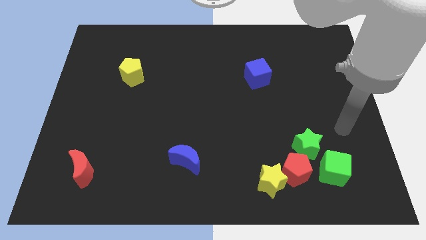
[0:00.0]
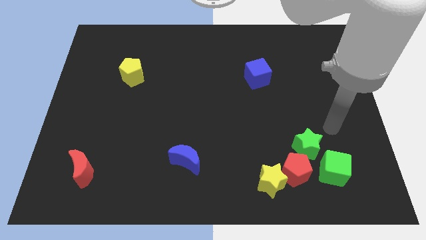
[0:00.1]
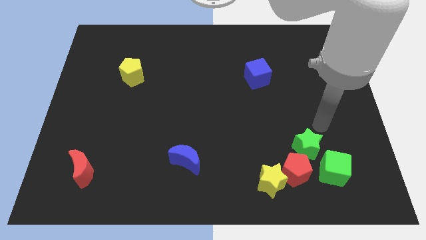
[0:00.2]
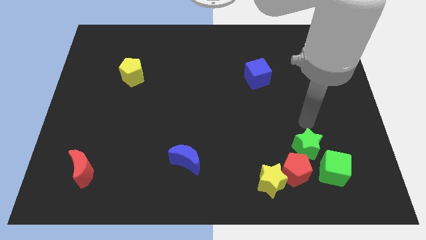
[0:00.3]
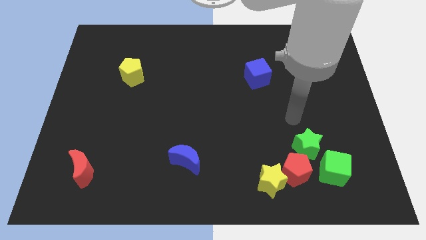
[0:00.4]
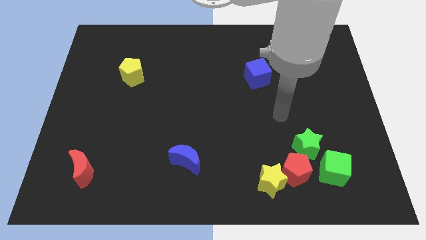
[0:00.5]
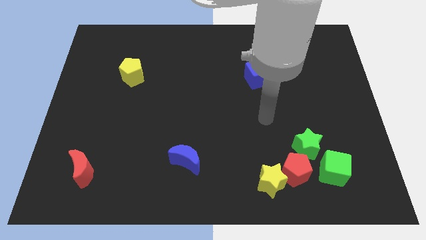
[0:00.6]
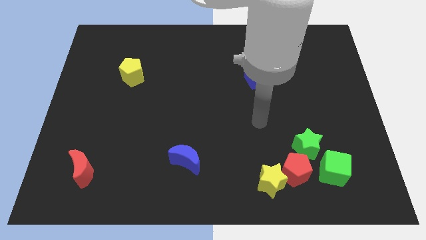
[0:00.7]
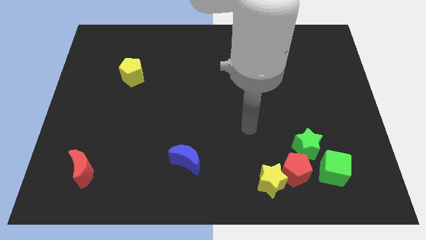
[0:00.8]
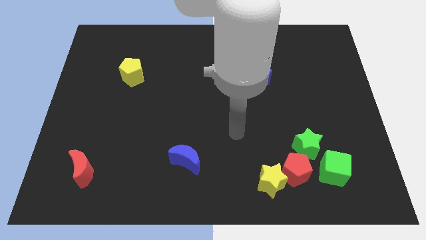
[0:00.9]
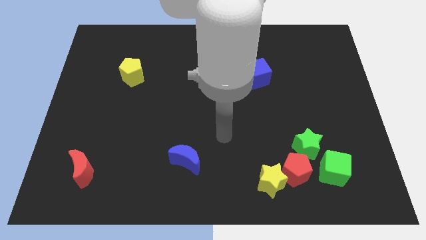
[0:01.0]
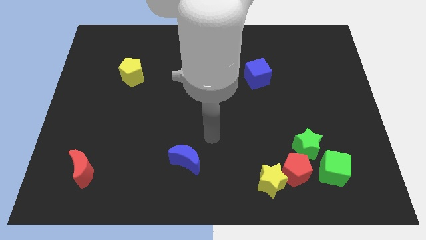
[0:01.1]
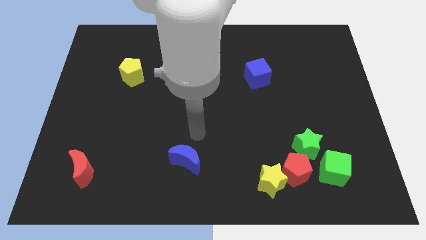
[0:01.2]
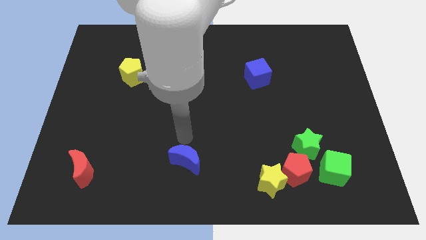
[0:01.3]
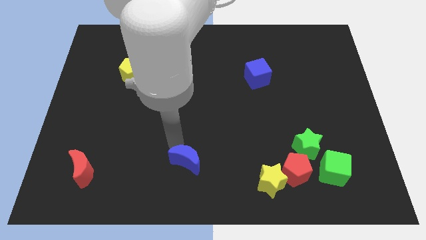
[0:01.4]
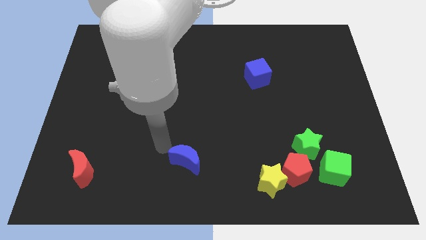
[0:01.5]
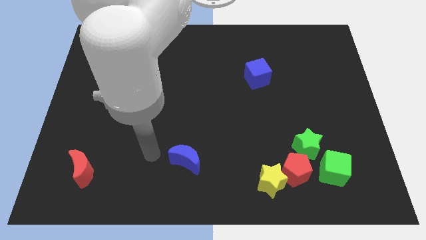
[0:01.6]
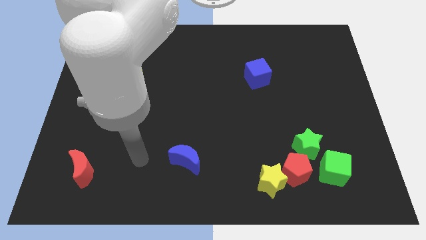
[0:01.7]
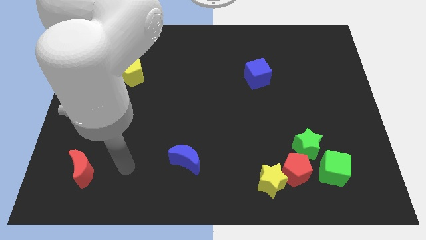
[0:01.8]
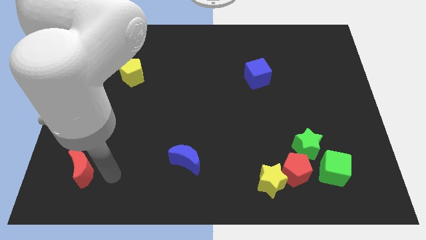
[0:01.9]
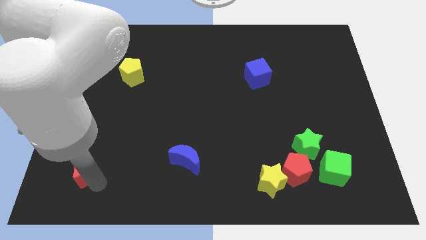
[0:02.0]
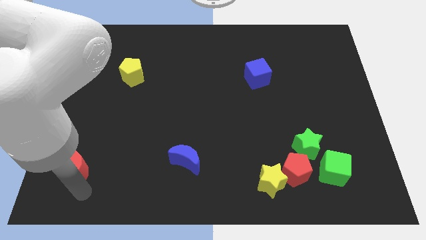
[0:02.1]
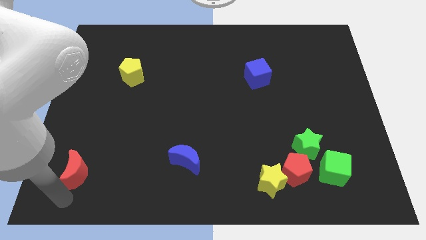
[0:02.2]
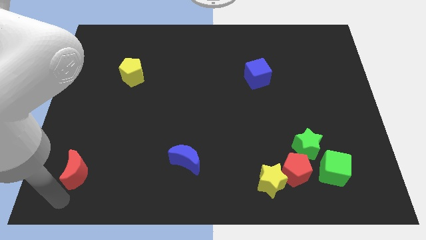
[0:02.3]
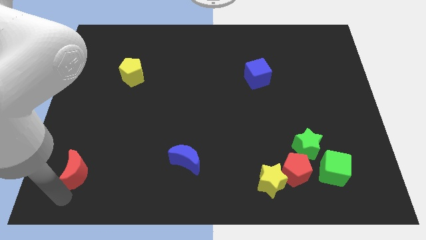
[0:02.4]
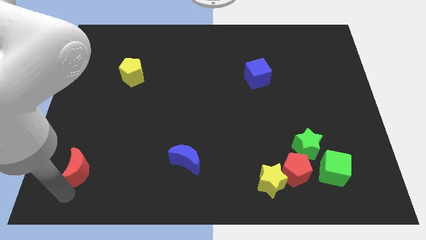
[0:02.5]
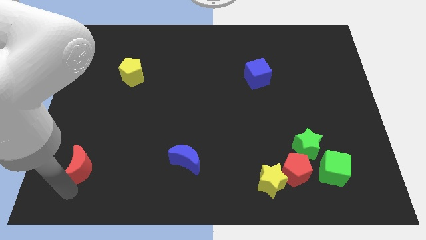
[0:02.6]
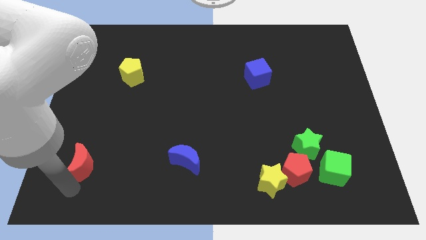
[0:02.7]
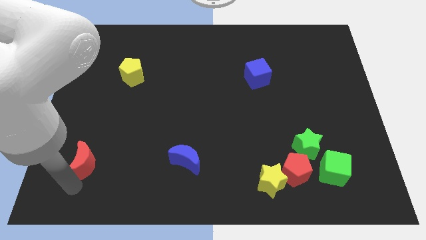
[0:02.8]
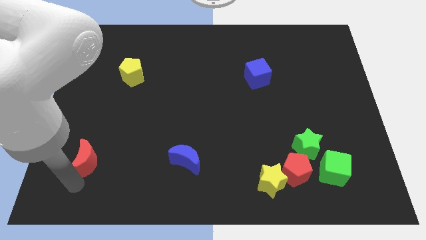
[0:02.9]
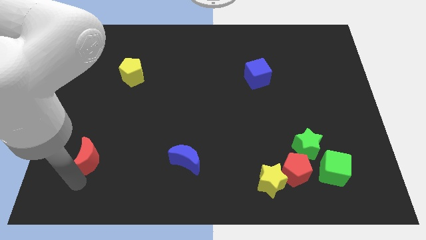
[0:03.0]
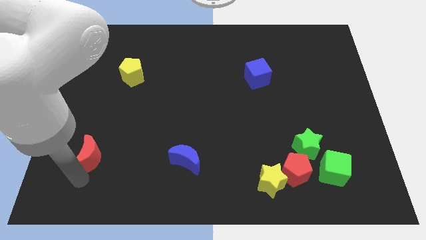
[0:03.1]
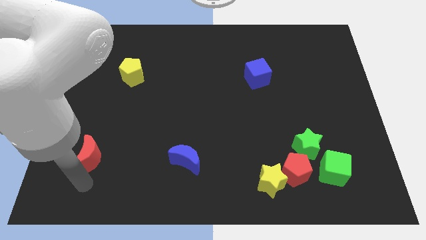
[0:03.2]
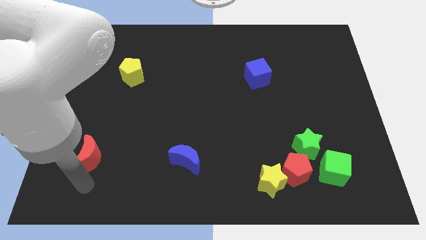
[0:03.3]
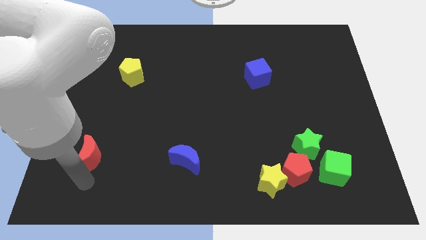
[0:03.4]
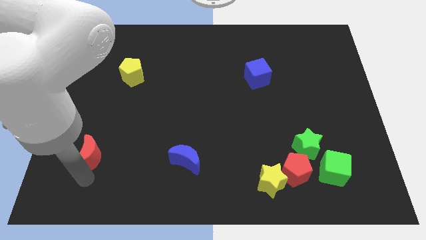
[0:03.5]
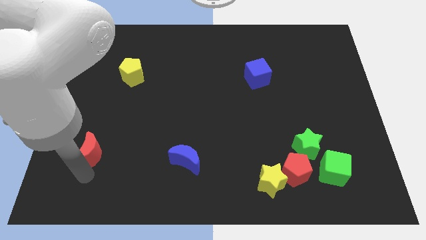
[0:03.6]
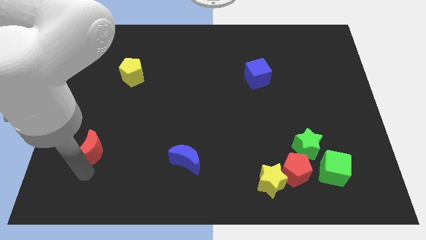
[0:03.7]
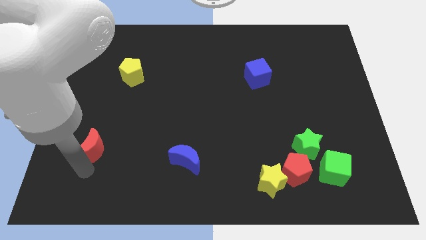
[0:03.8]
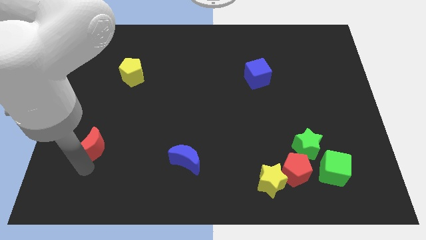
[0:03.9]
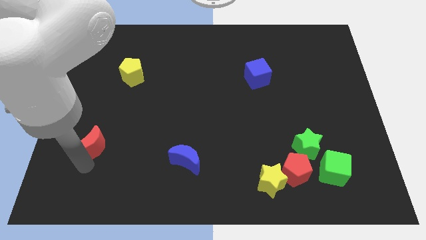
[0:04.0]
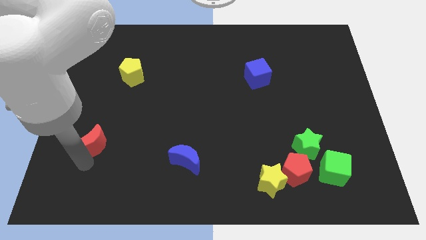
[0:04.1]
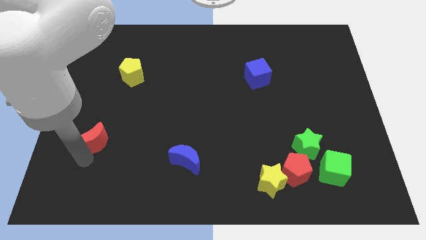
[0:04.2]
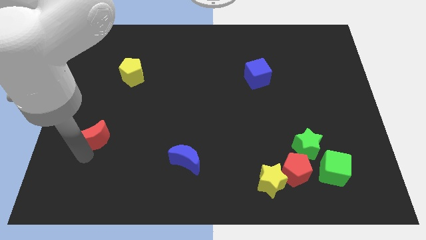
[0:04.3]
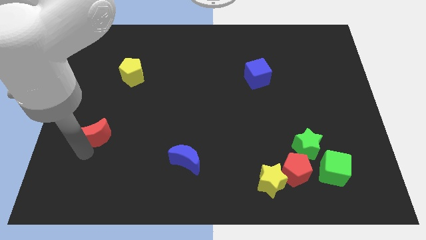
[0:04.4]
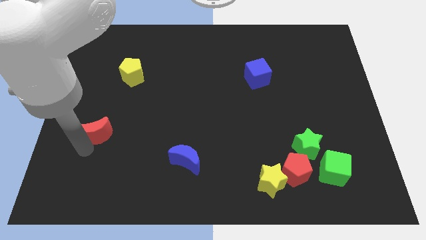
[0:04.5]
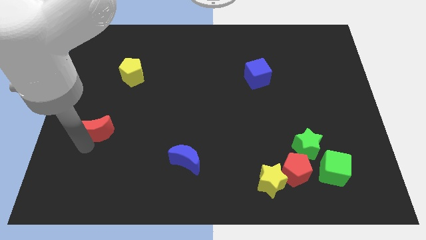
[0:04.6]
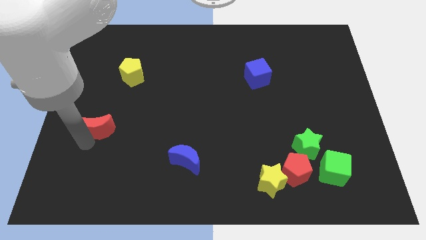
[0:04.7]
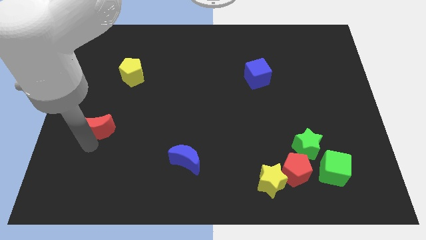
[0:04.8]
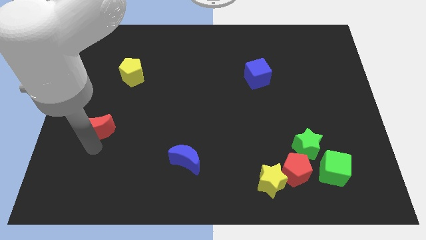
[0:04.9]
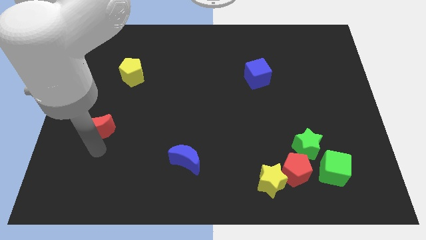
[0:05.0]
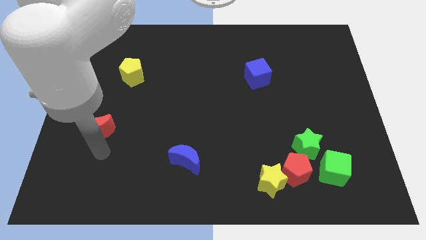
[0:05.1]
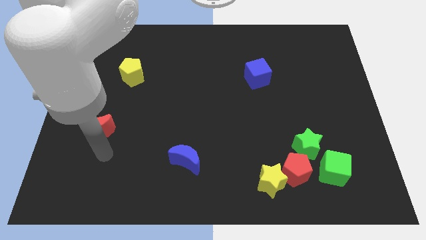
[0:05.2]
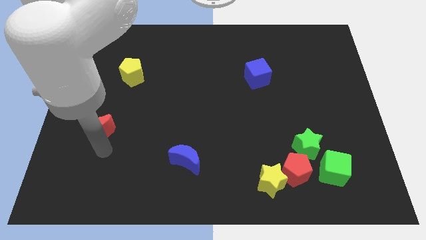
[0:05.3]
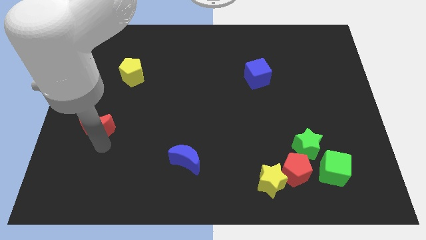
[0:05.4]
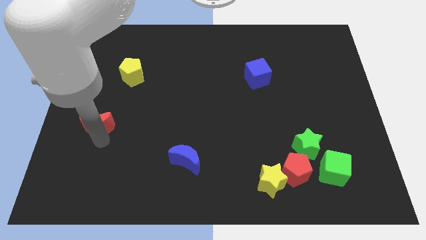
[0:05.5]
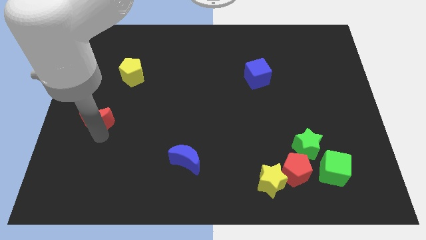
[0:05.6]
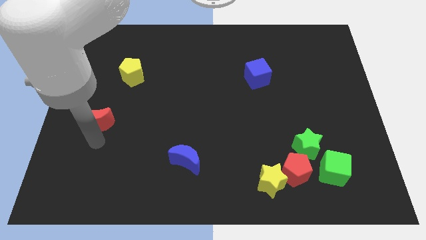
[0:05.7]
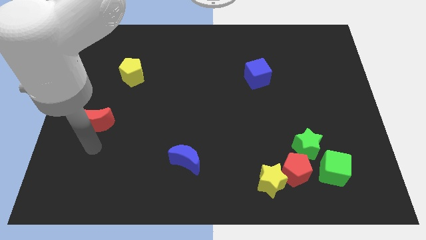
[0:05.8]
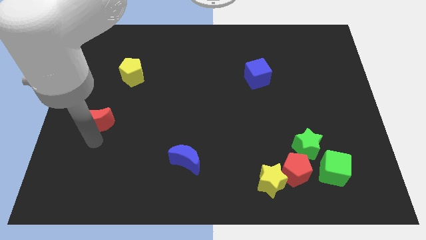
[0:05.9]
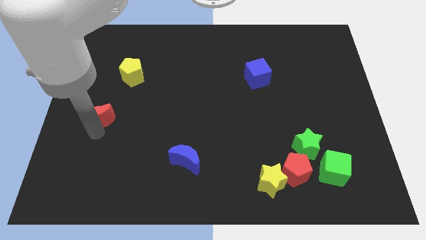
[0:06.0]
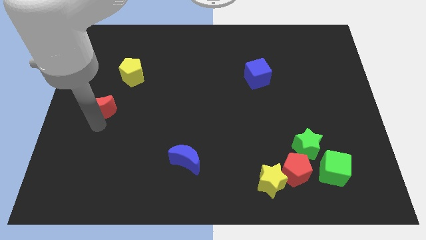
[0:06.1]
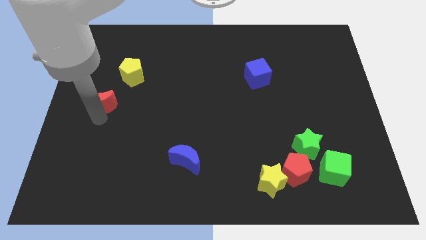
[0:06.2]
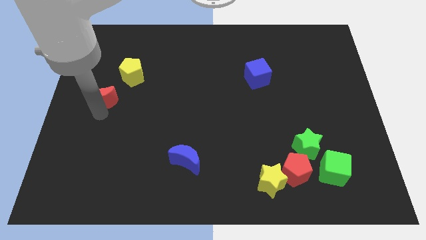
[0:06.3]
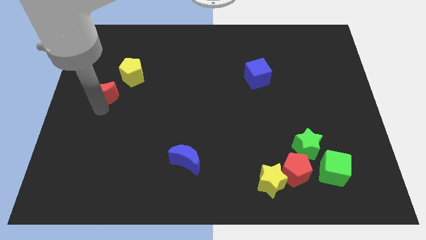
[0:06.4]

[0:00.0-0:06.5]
move the red moon upwards

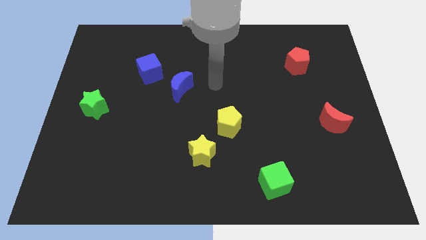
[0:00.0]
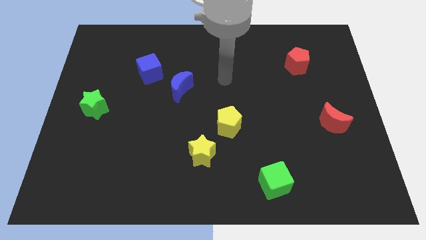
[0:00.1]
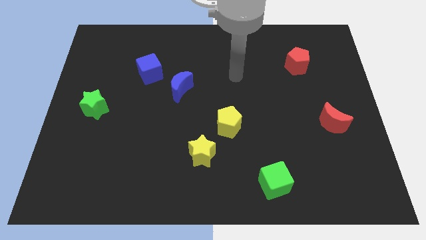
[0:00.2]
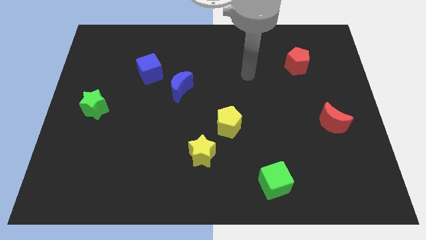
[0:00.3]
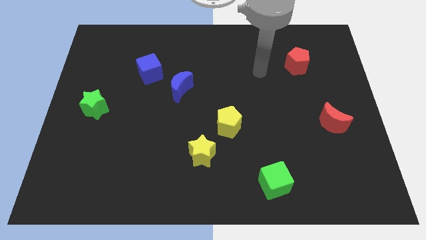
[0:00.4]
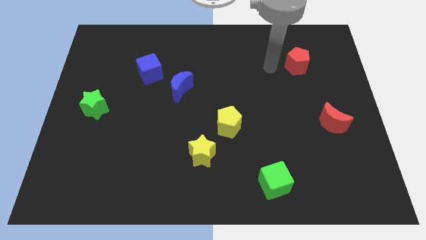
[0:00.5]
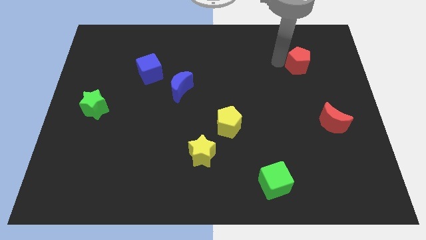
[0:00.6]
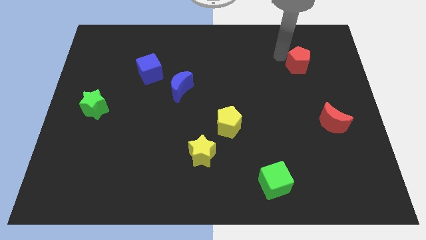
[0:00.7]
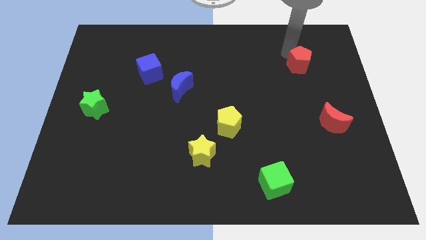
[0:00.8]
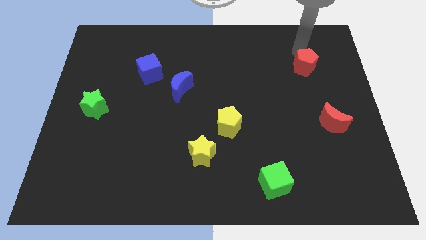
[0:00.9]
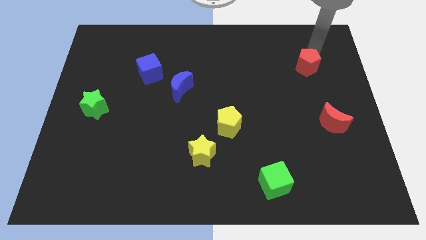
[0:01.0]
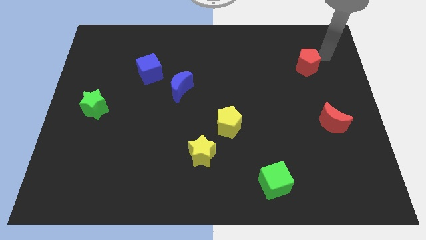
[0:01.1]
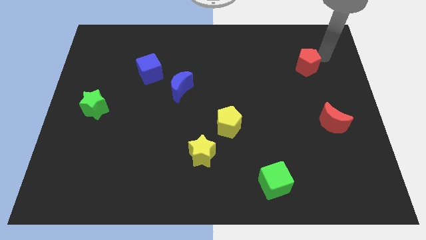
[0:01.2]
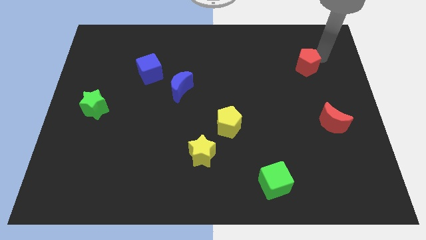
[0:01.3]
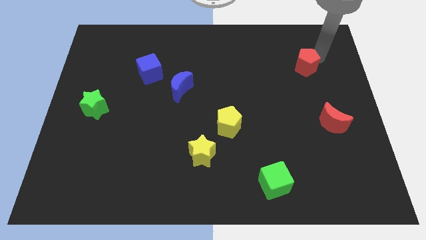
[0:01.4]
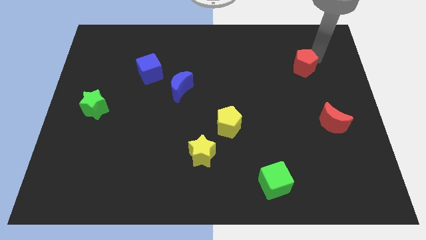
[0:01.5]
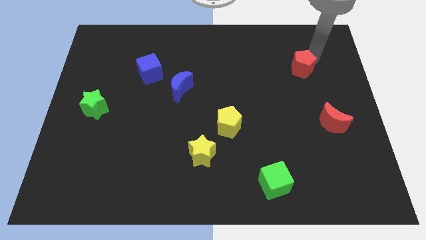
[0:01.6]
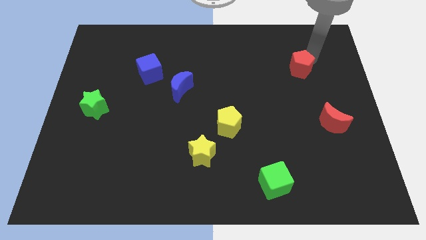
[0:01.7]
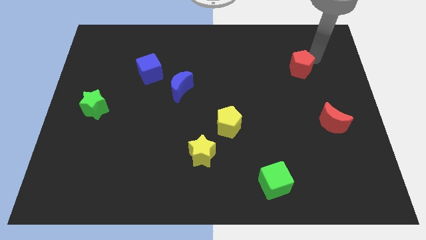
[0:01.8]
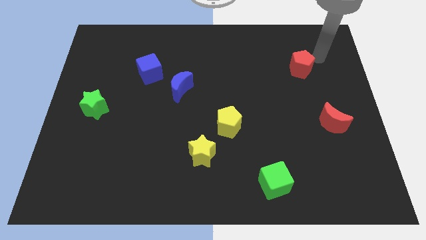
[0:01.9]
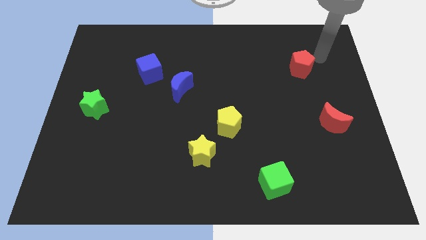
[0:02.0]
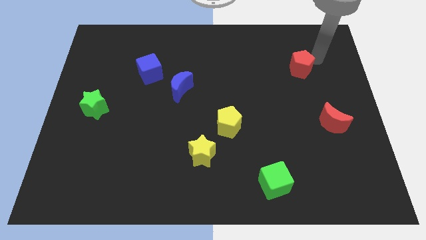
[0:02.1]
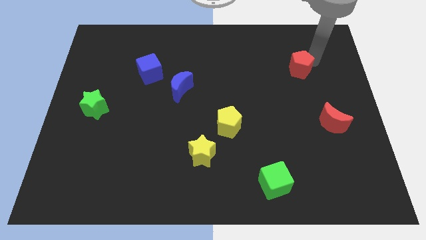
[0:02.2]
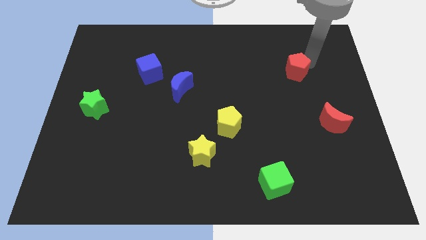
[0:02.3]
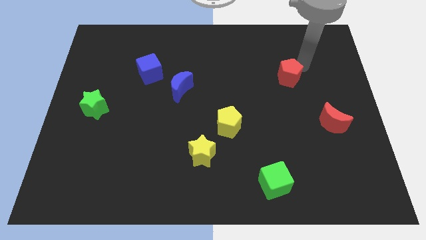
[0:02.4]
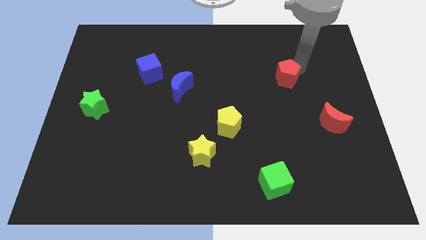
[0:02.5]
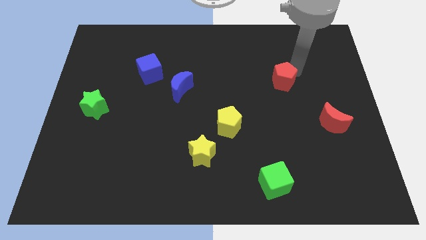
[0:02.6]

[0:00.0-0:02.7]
slightly push the red pentagon downwards and left
